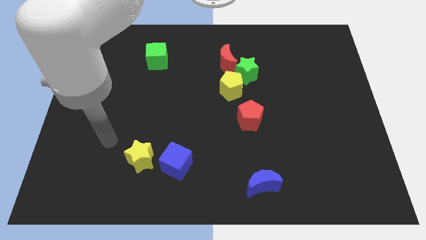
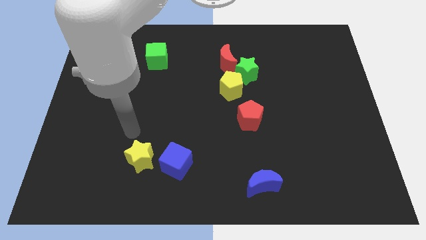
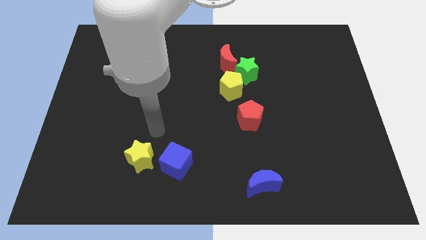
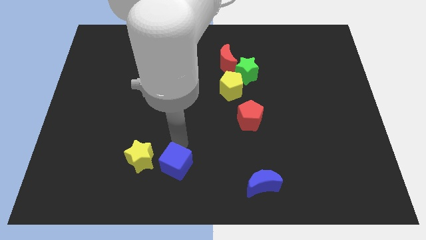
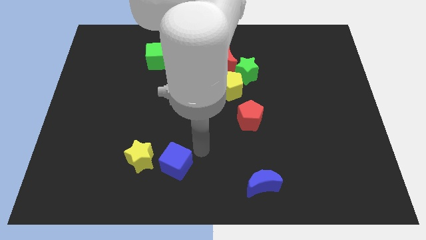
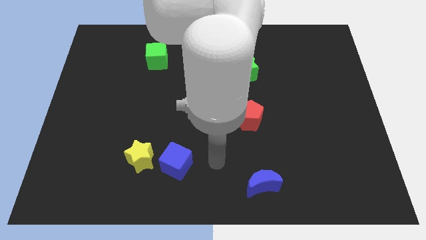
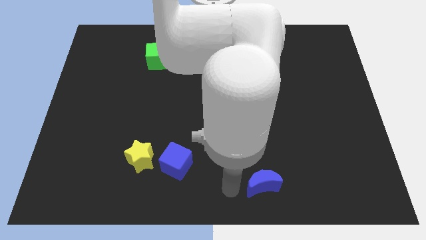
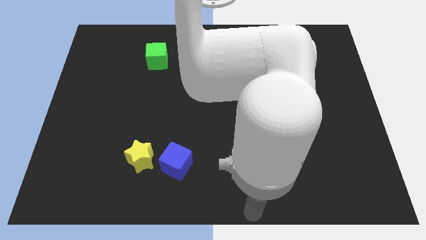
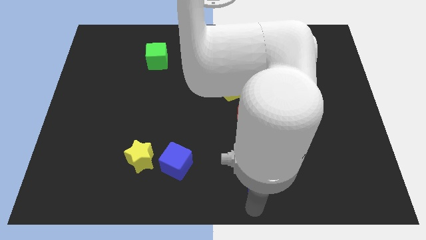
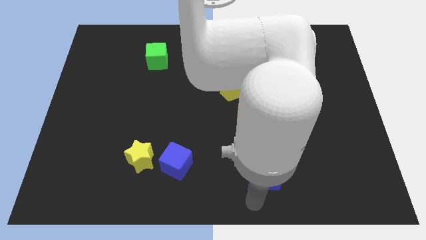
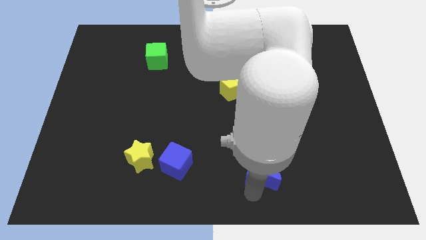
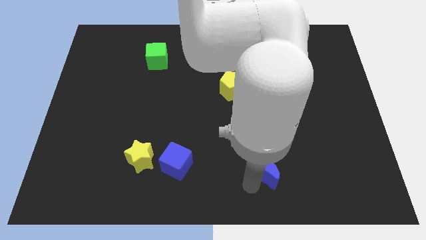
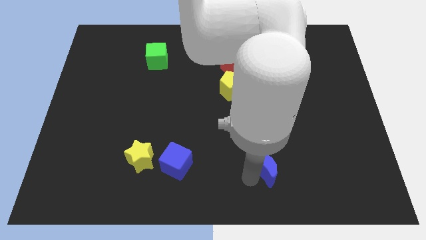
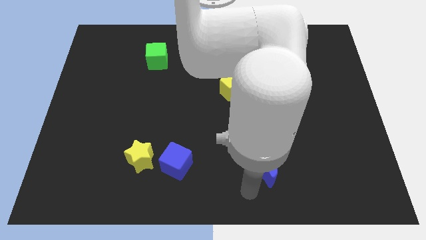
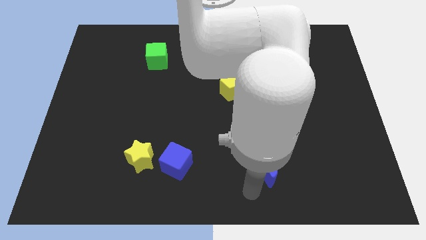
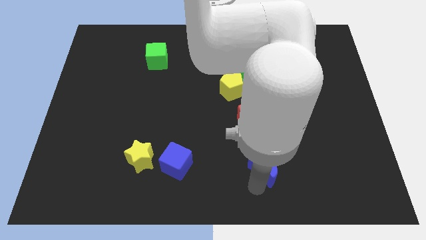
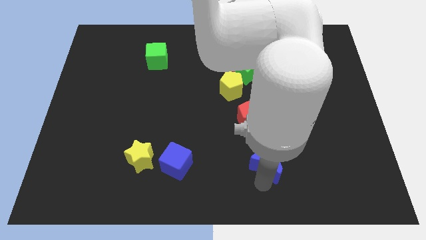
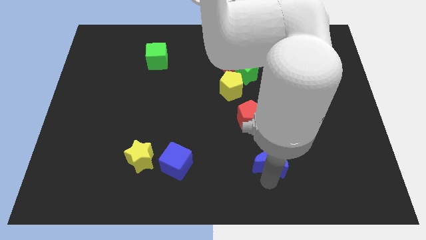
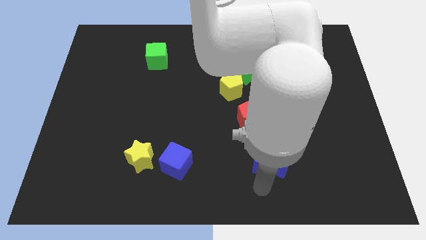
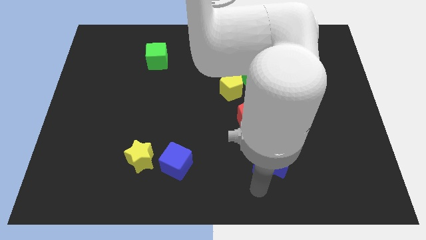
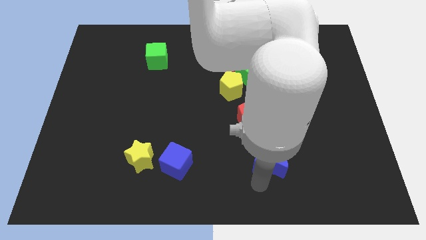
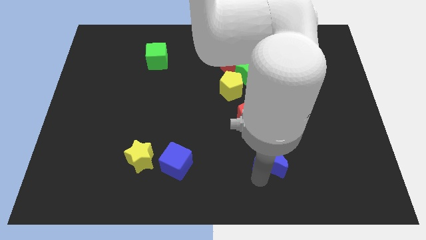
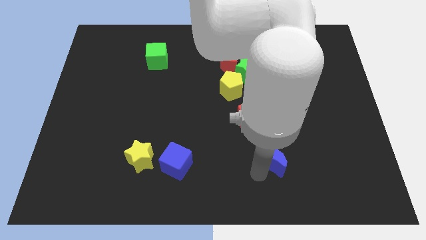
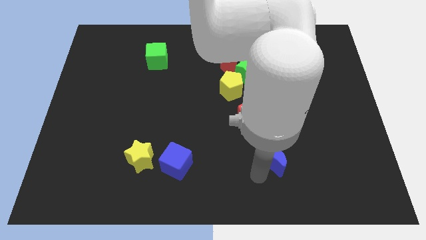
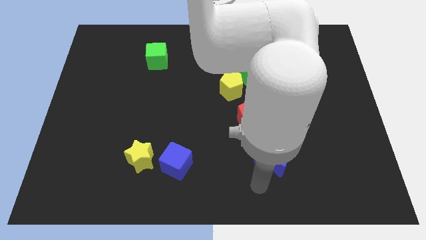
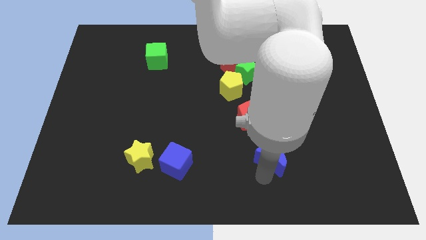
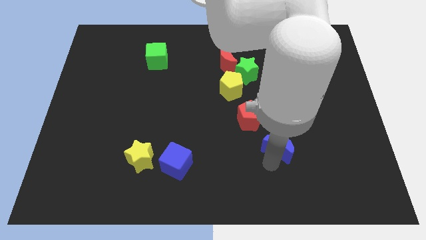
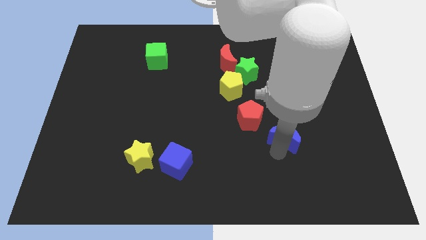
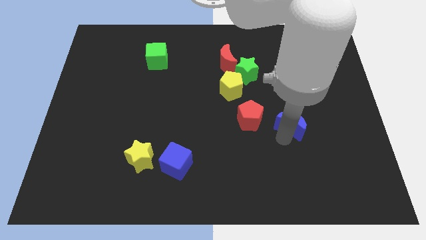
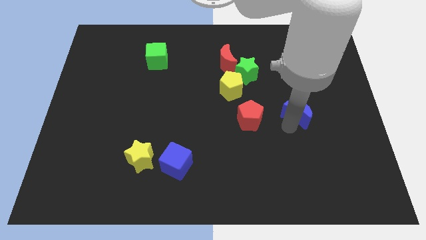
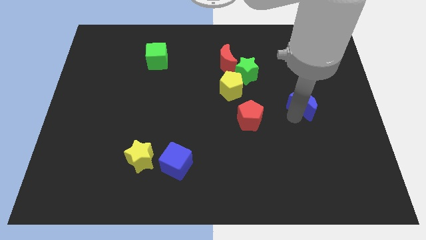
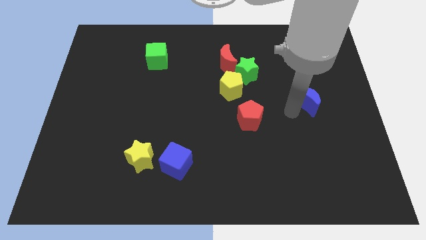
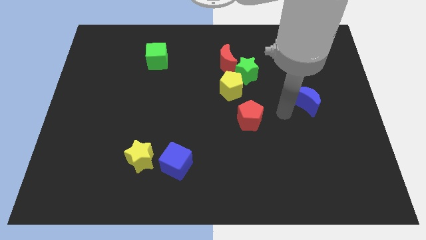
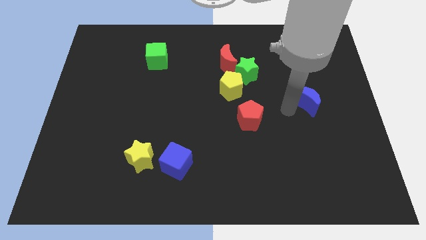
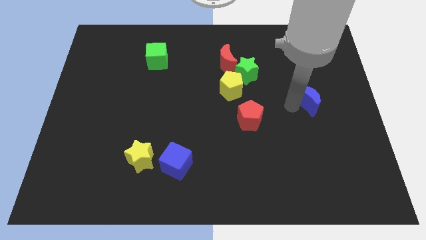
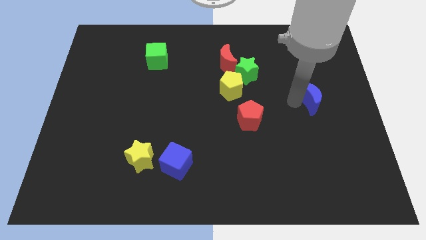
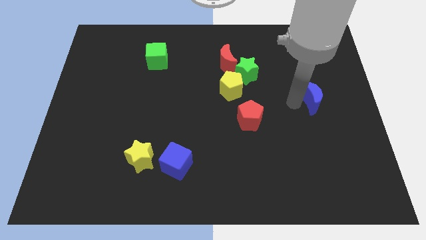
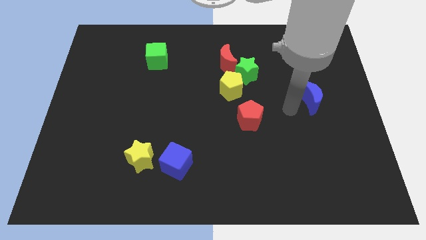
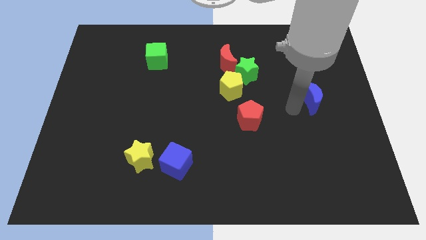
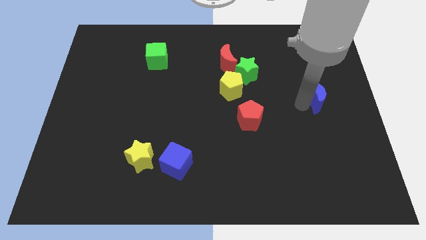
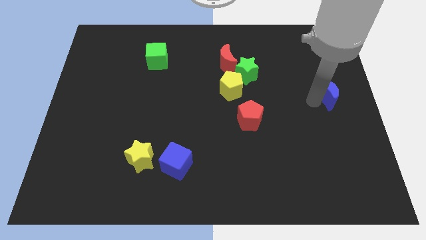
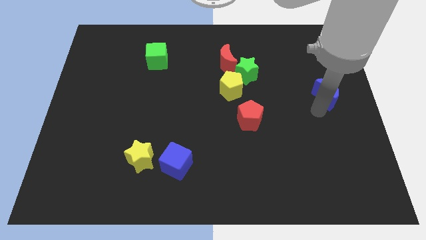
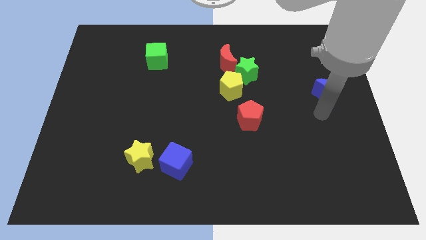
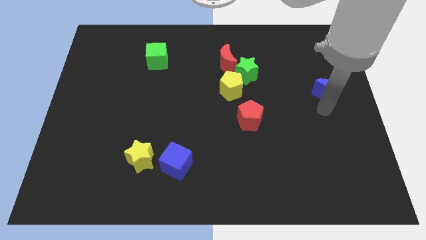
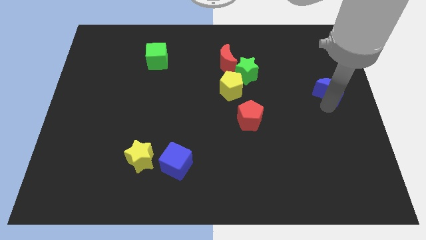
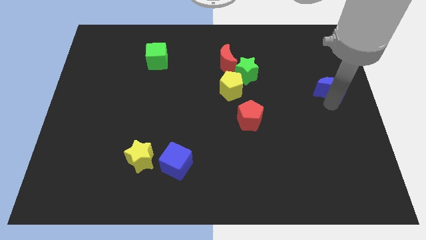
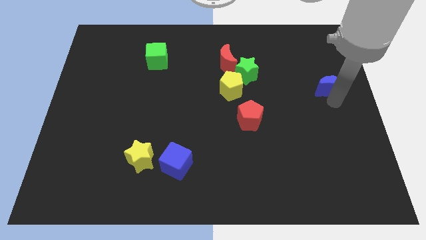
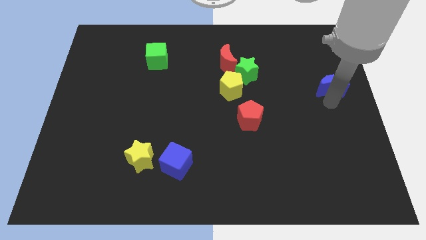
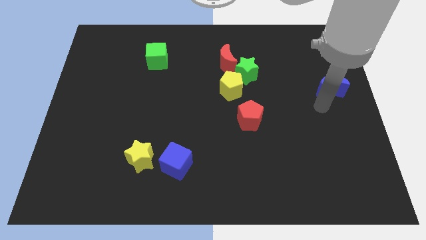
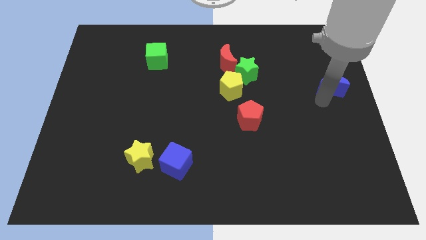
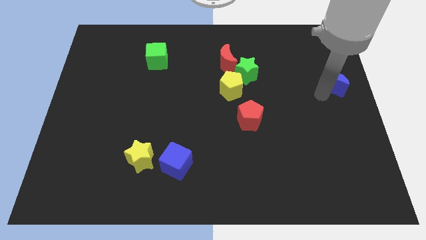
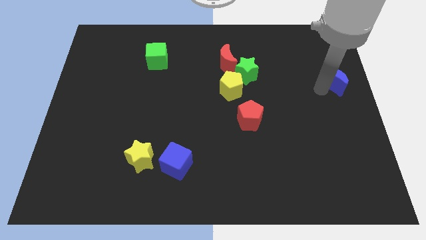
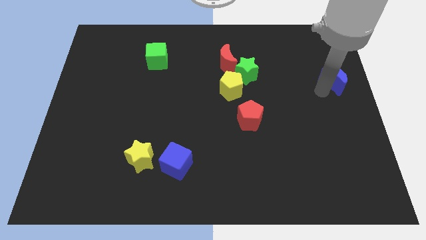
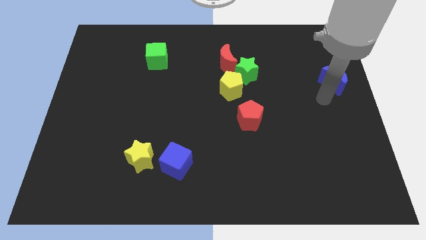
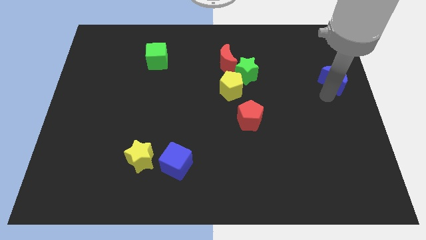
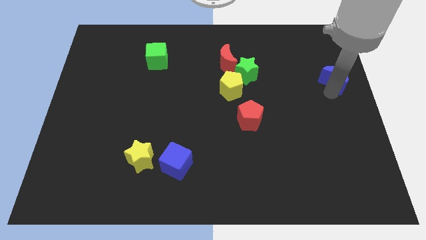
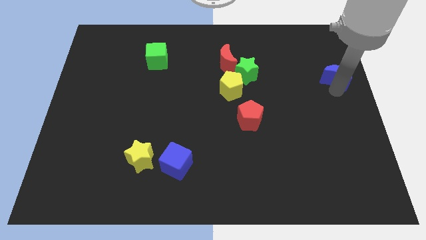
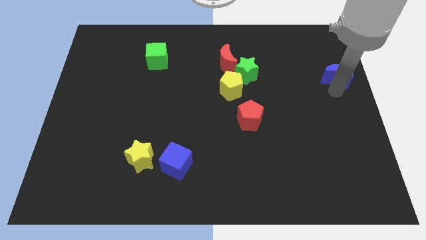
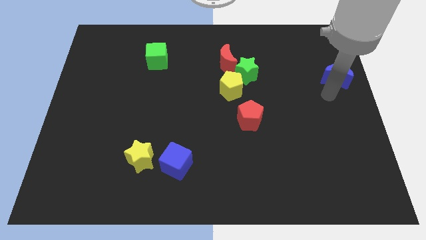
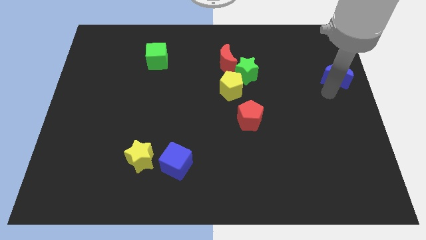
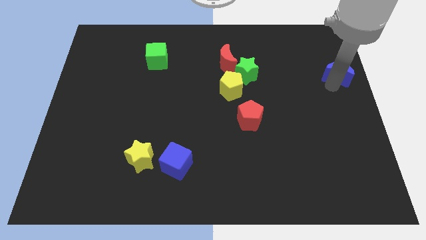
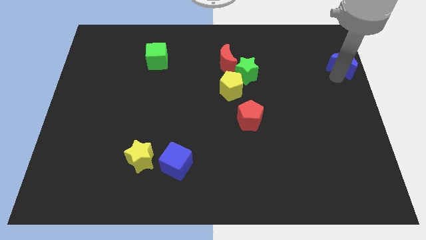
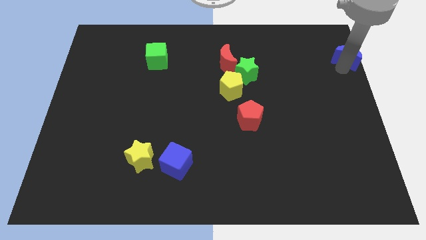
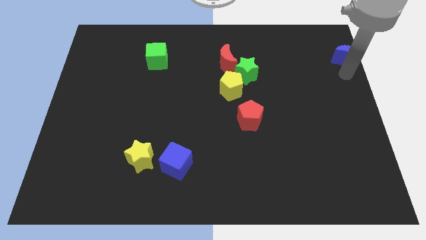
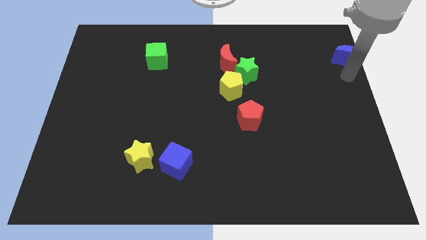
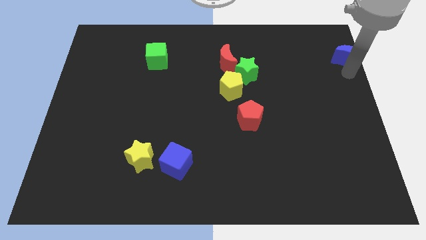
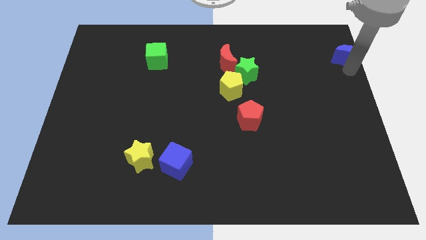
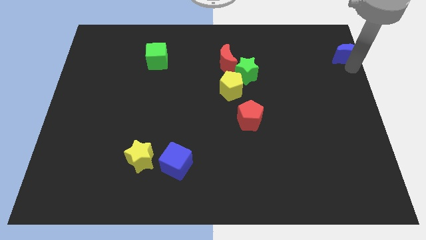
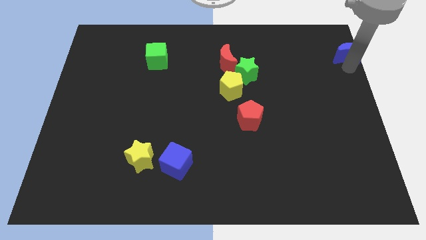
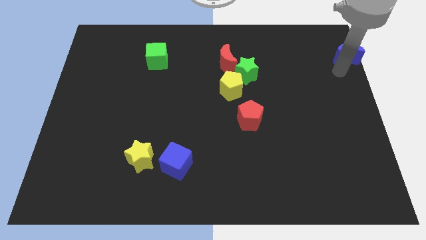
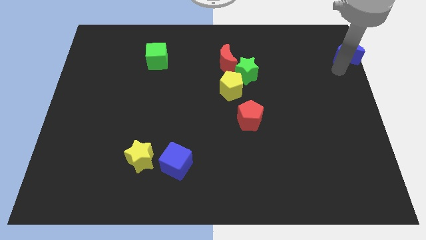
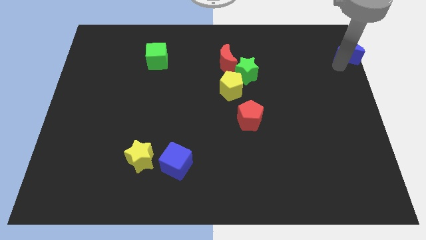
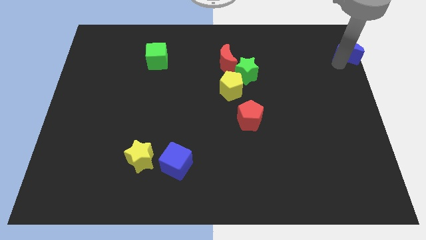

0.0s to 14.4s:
put the blue moon to the top right
